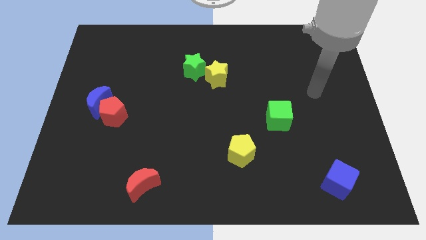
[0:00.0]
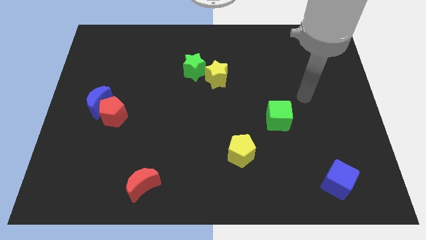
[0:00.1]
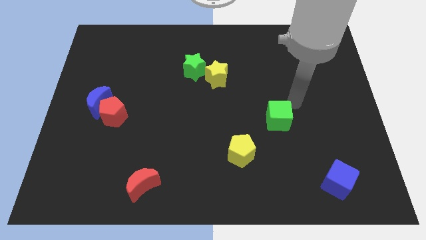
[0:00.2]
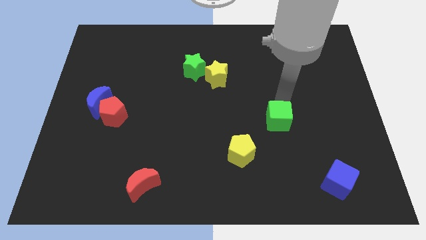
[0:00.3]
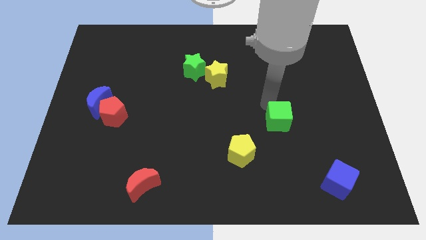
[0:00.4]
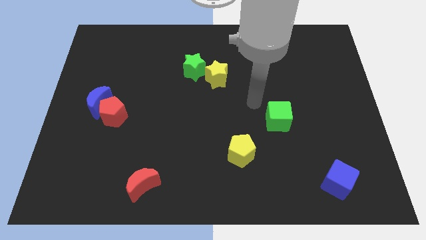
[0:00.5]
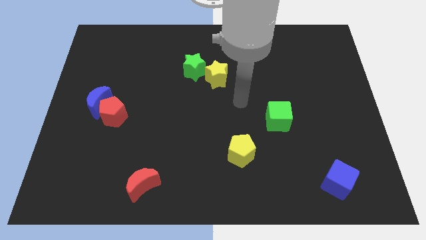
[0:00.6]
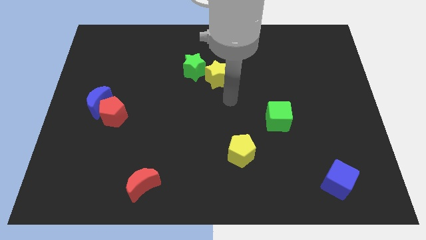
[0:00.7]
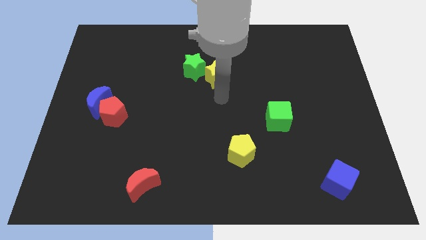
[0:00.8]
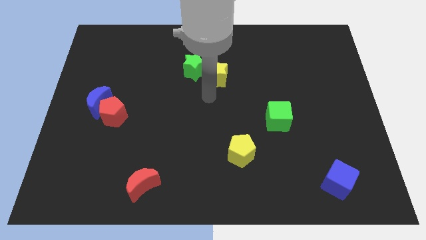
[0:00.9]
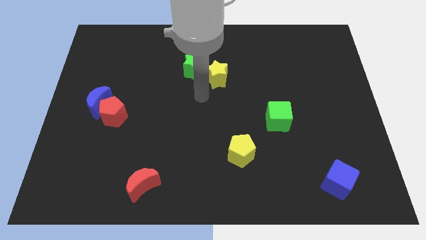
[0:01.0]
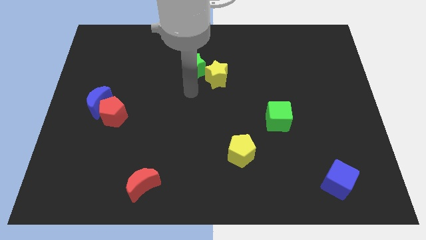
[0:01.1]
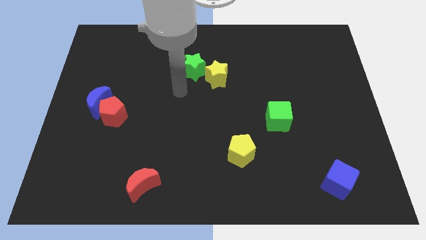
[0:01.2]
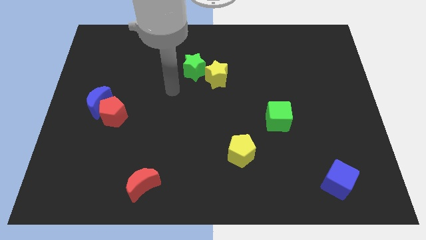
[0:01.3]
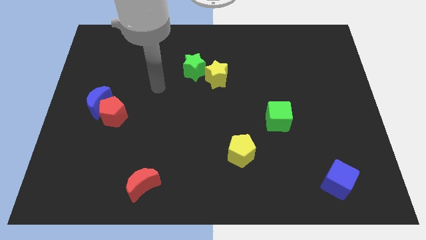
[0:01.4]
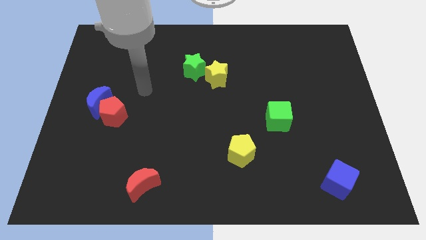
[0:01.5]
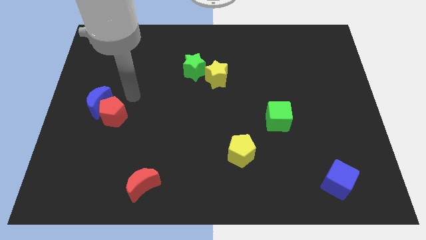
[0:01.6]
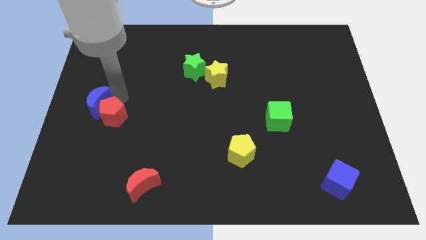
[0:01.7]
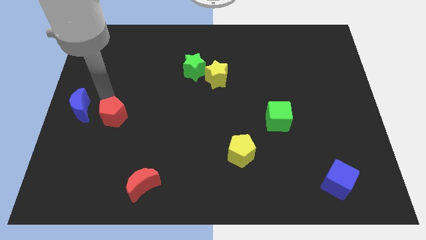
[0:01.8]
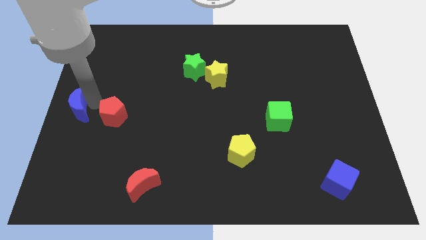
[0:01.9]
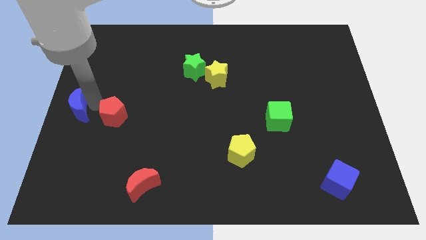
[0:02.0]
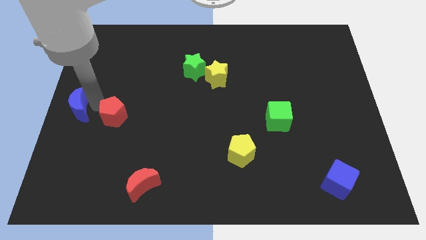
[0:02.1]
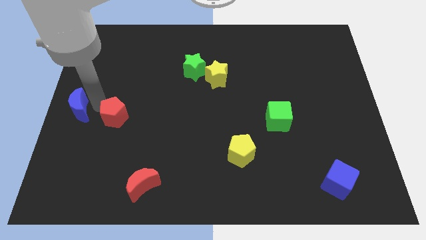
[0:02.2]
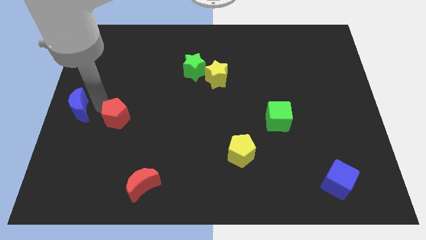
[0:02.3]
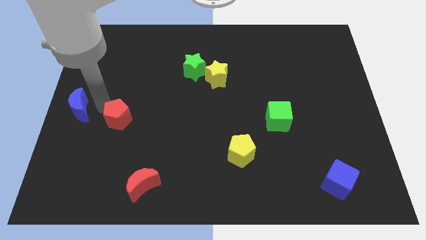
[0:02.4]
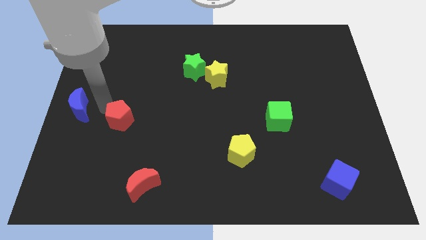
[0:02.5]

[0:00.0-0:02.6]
pull the red pentagon apart from the blue moon

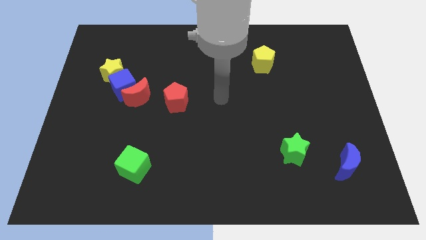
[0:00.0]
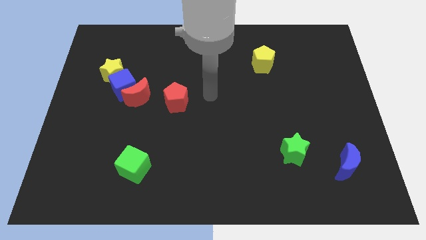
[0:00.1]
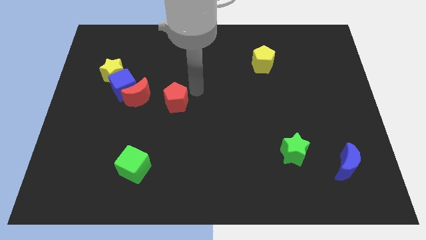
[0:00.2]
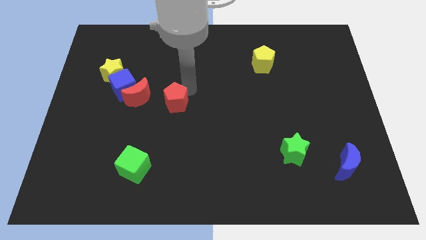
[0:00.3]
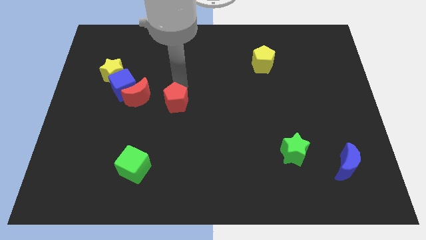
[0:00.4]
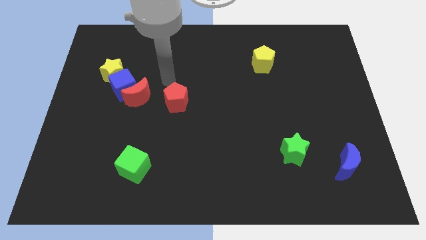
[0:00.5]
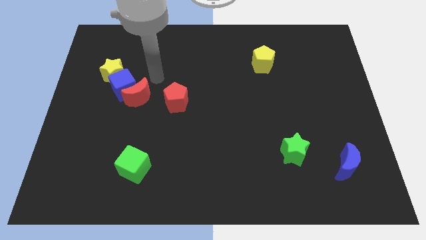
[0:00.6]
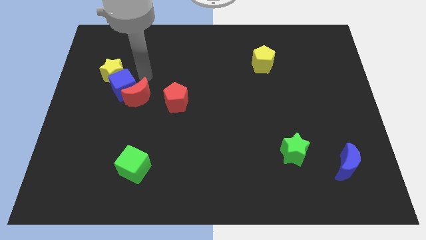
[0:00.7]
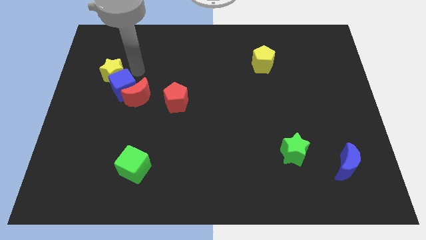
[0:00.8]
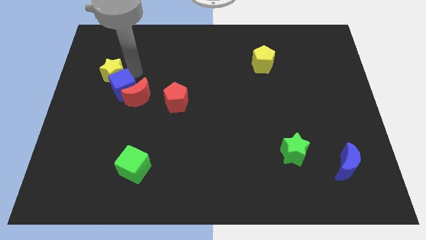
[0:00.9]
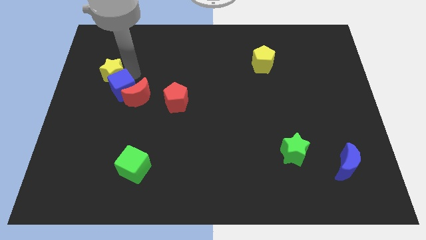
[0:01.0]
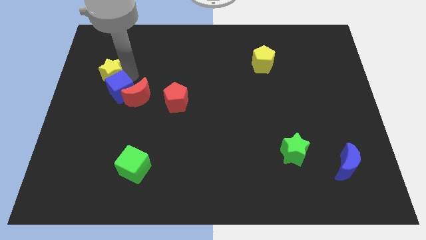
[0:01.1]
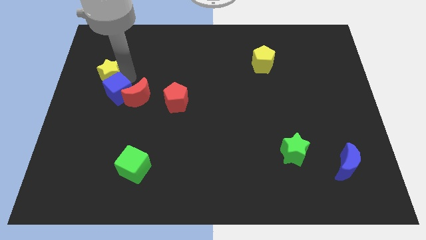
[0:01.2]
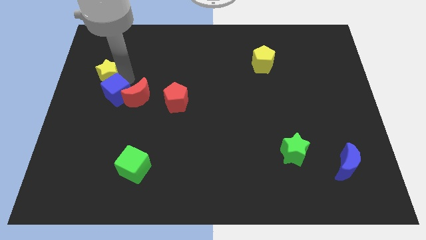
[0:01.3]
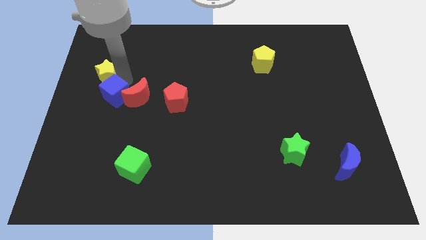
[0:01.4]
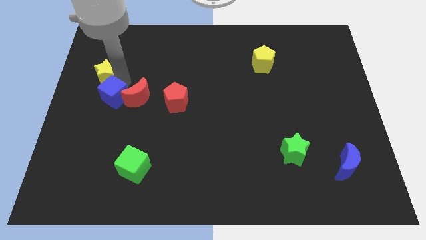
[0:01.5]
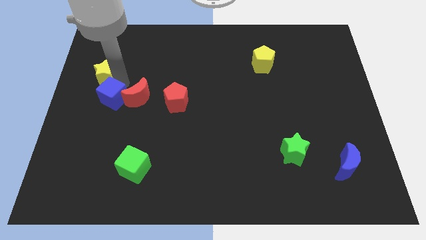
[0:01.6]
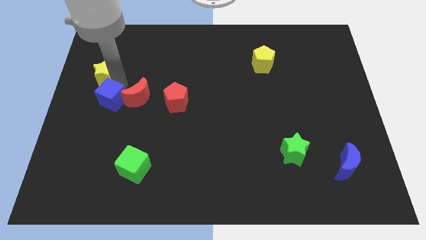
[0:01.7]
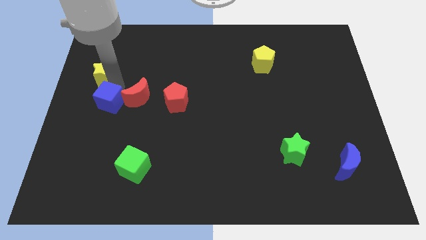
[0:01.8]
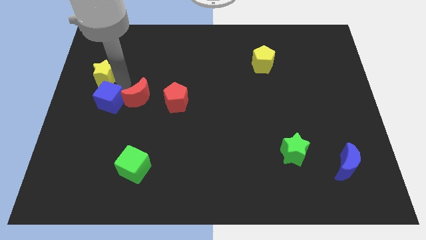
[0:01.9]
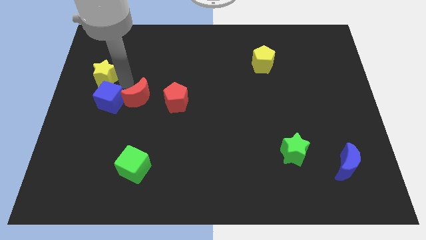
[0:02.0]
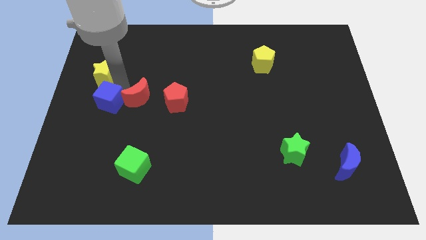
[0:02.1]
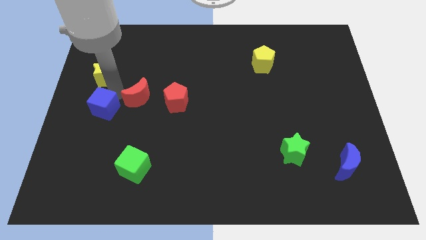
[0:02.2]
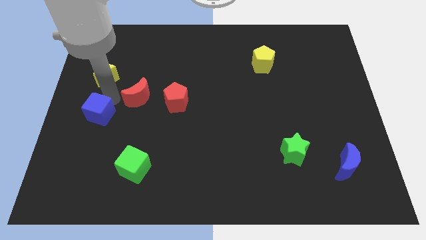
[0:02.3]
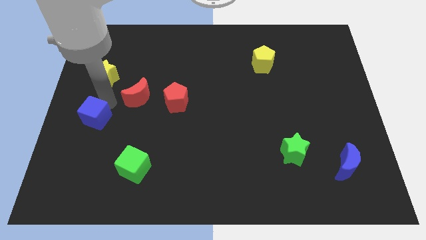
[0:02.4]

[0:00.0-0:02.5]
move the blue cube away from the red moon and yellow star

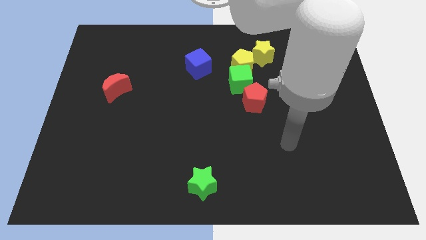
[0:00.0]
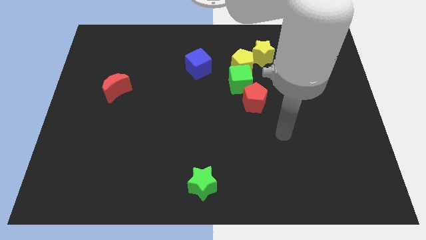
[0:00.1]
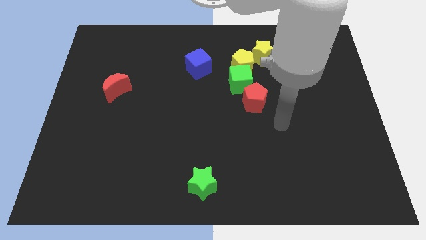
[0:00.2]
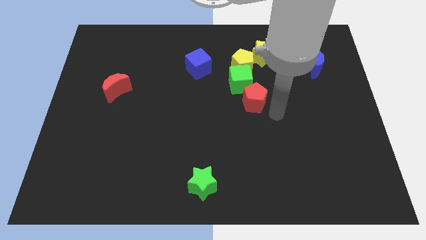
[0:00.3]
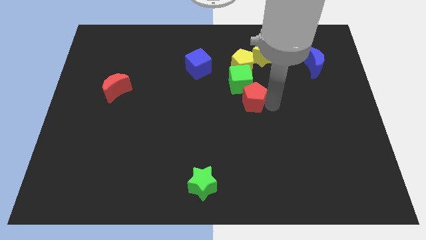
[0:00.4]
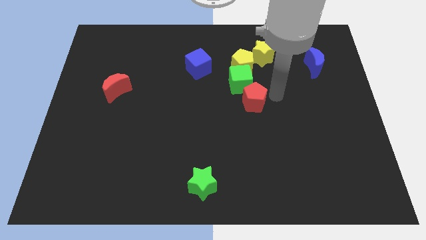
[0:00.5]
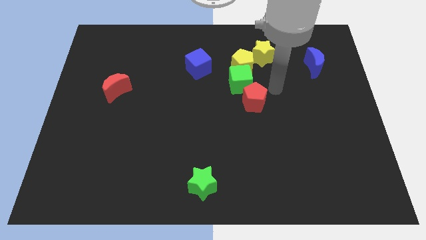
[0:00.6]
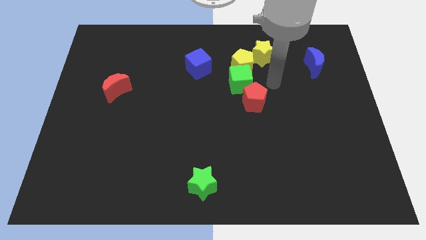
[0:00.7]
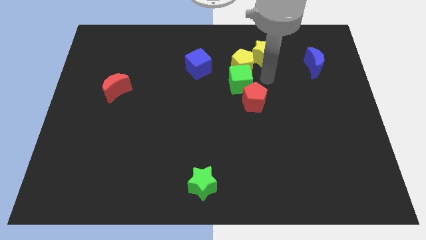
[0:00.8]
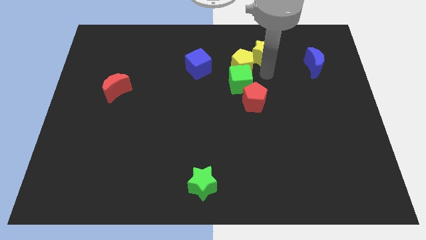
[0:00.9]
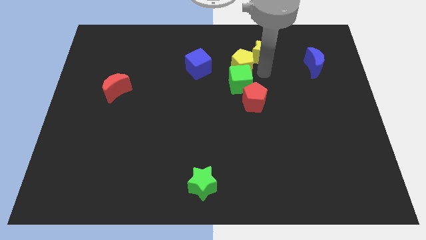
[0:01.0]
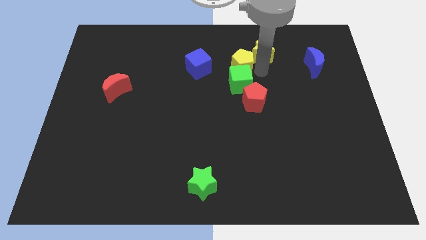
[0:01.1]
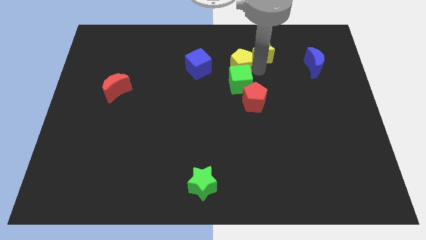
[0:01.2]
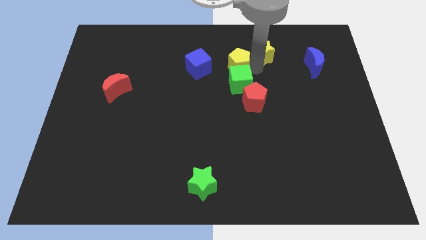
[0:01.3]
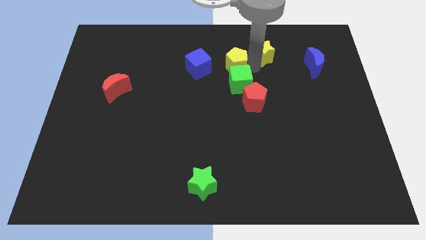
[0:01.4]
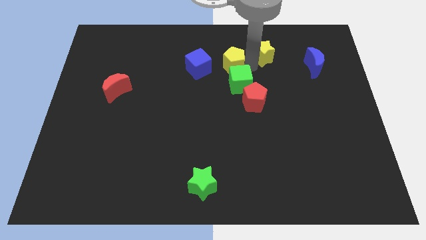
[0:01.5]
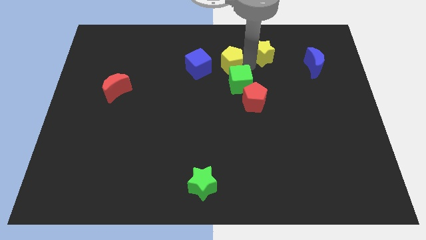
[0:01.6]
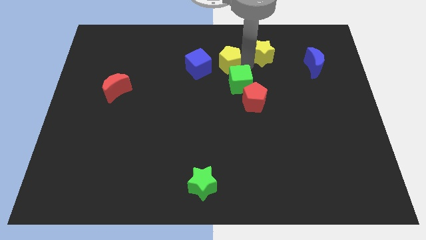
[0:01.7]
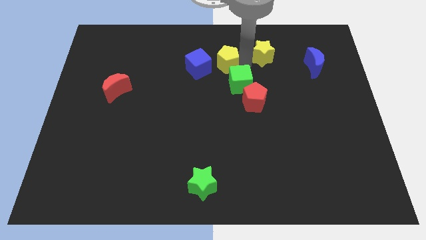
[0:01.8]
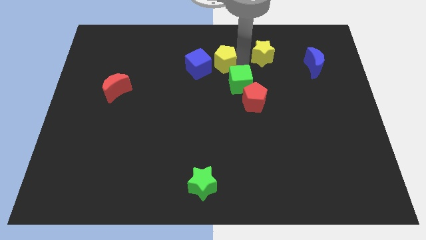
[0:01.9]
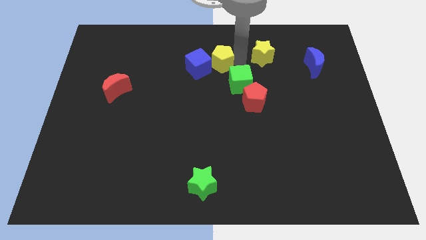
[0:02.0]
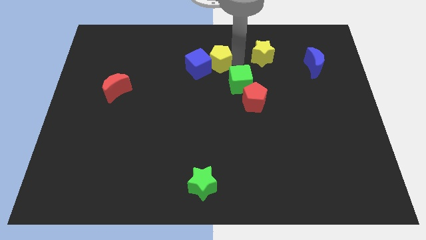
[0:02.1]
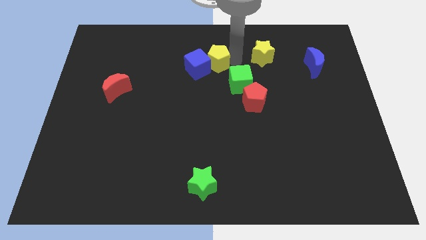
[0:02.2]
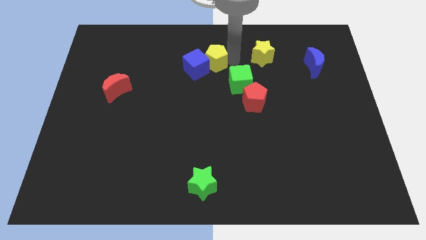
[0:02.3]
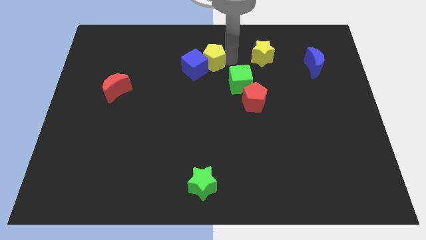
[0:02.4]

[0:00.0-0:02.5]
move the yellow pentagon away from the green cube and yellow star

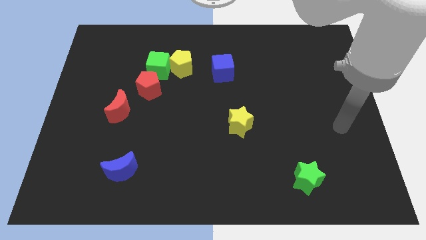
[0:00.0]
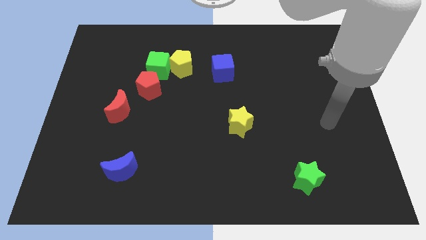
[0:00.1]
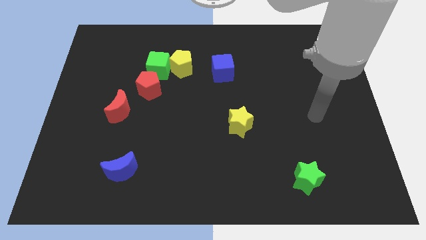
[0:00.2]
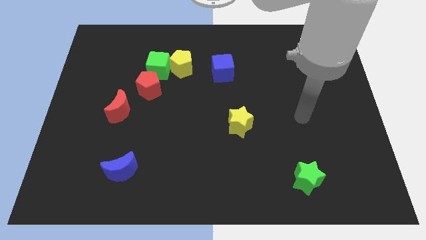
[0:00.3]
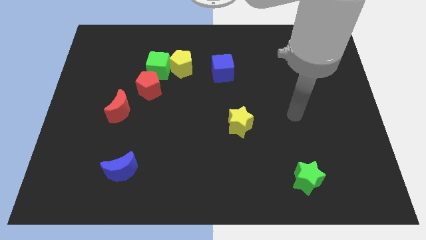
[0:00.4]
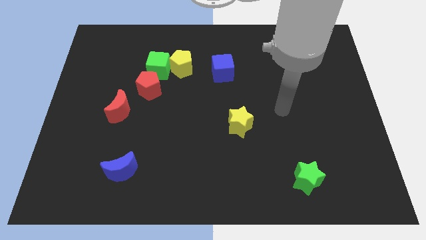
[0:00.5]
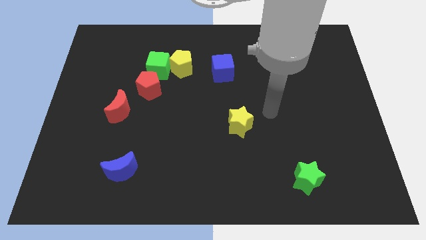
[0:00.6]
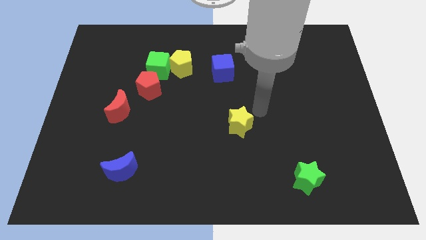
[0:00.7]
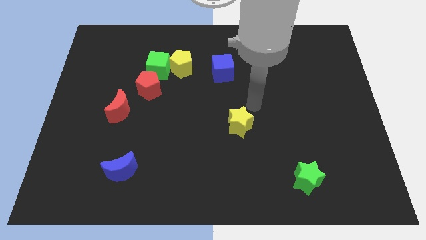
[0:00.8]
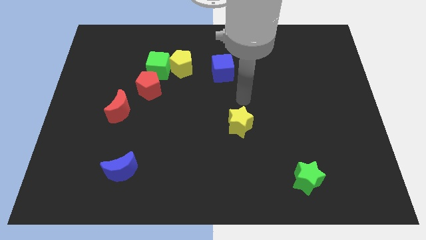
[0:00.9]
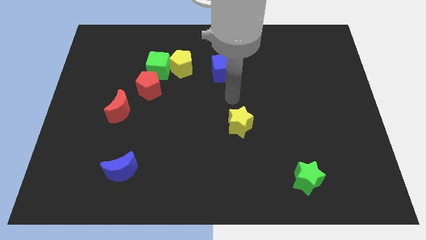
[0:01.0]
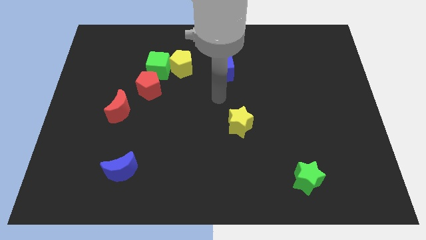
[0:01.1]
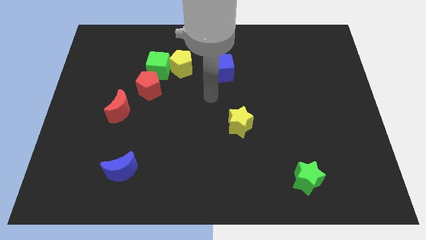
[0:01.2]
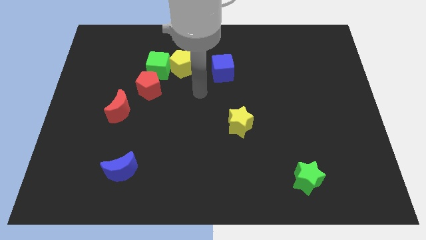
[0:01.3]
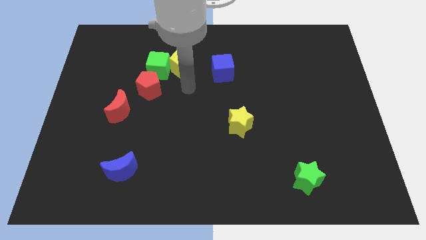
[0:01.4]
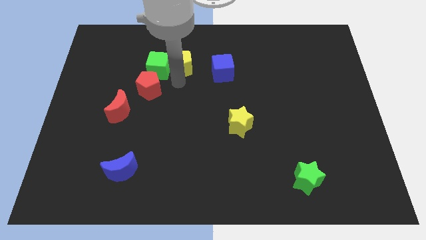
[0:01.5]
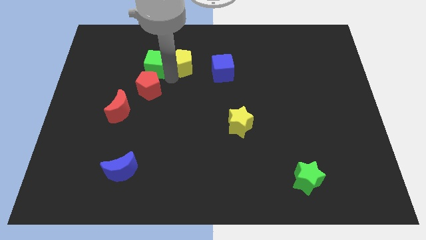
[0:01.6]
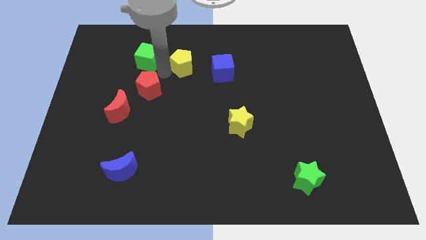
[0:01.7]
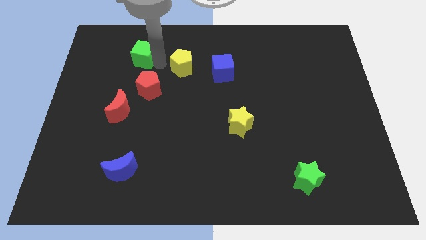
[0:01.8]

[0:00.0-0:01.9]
move the yellow pentagon away from the green cube
